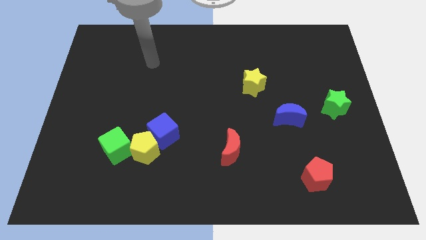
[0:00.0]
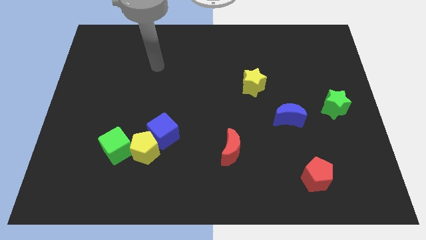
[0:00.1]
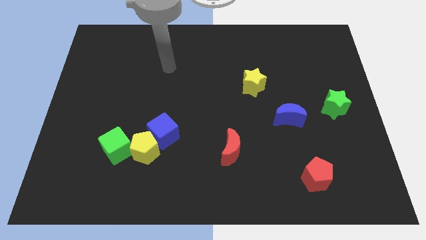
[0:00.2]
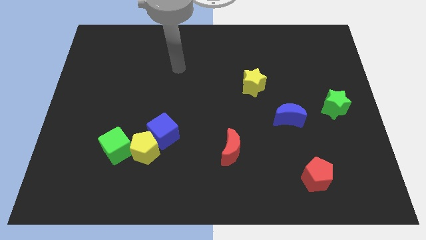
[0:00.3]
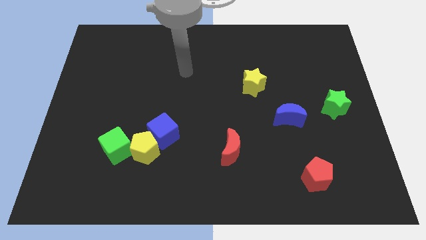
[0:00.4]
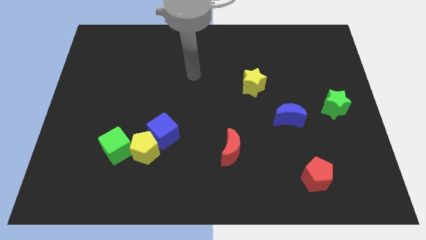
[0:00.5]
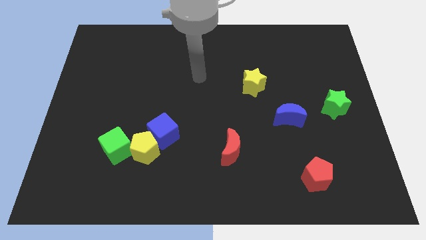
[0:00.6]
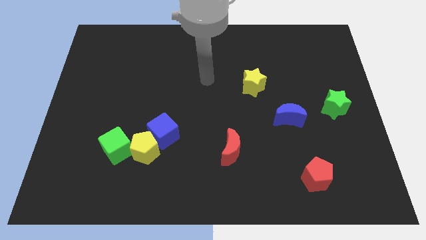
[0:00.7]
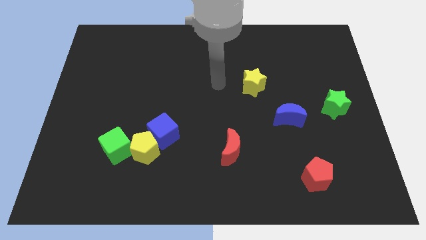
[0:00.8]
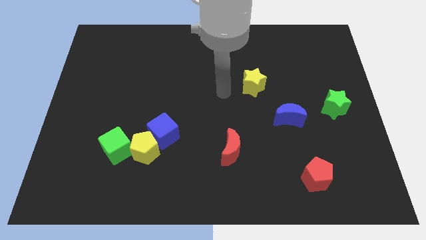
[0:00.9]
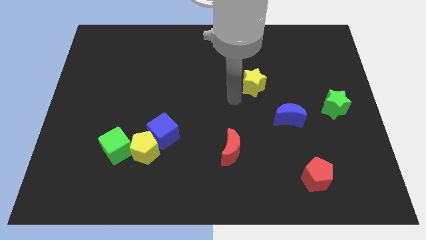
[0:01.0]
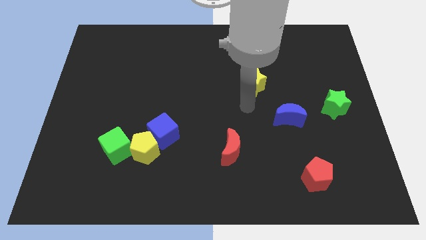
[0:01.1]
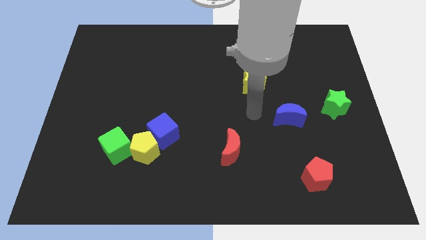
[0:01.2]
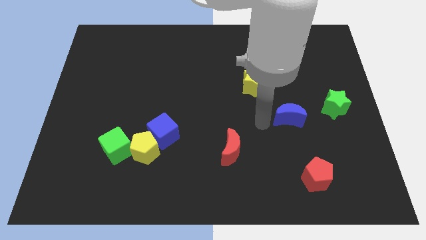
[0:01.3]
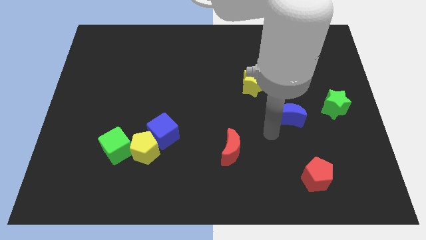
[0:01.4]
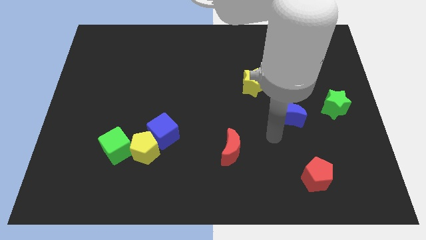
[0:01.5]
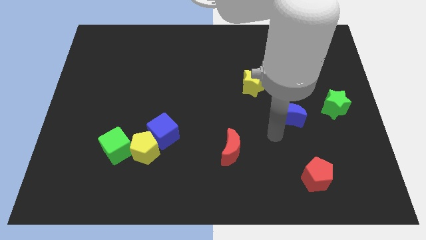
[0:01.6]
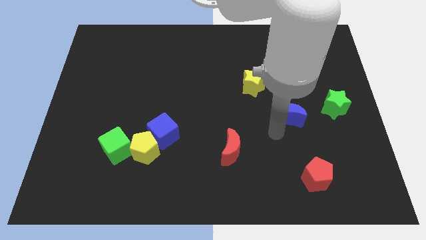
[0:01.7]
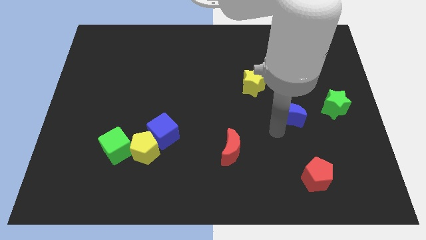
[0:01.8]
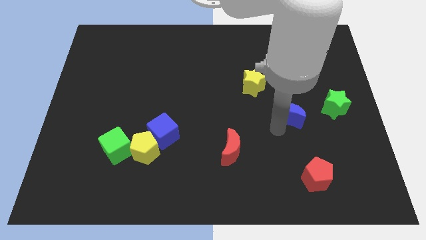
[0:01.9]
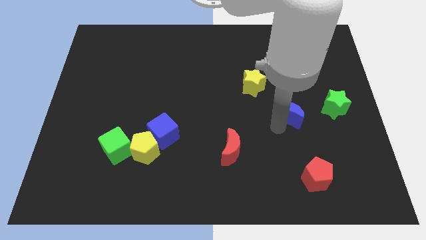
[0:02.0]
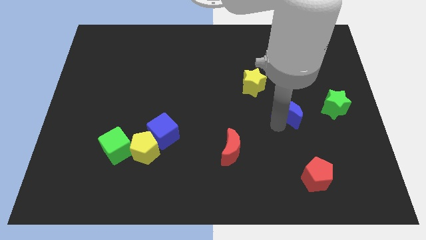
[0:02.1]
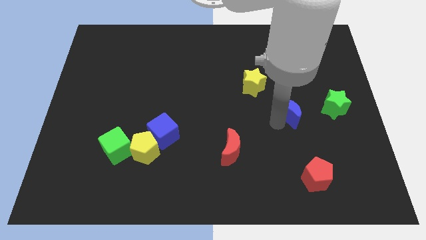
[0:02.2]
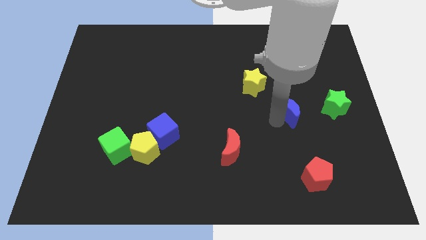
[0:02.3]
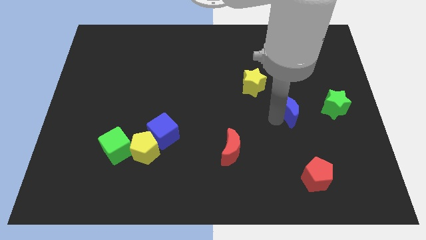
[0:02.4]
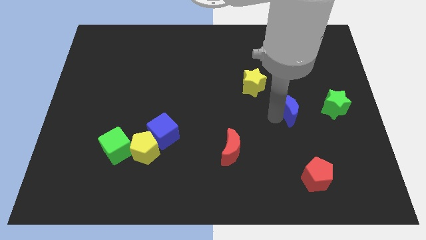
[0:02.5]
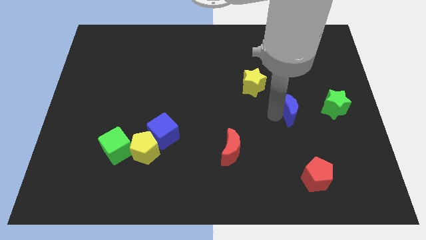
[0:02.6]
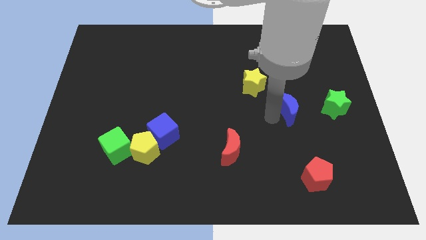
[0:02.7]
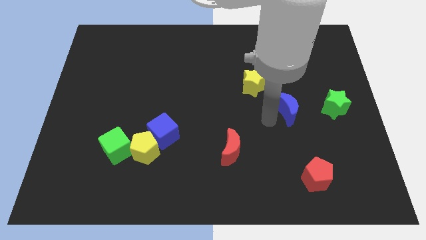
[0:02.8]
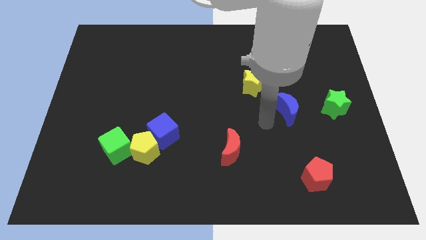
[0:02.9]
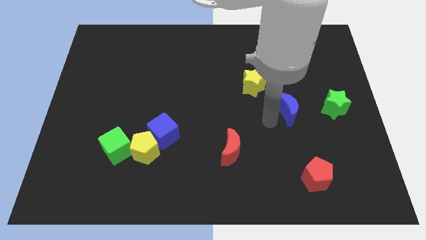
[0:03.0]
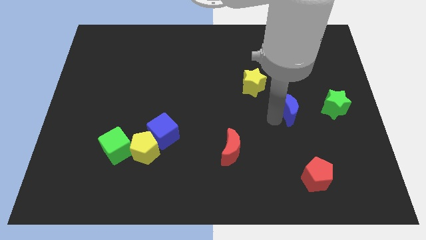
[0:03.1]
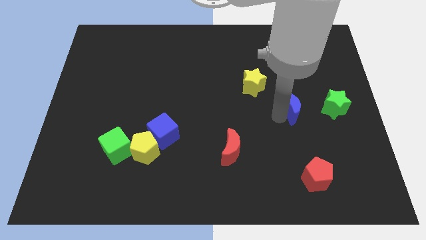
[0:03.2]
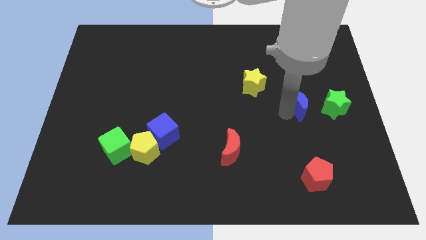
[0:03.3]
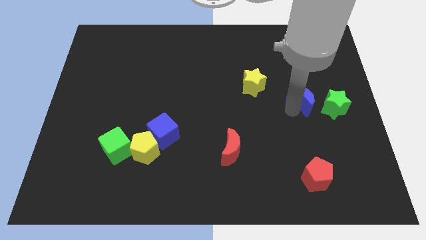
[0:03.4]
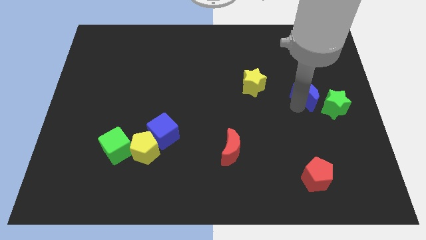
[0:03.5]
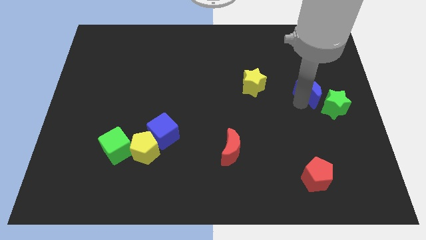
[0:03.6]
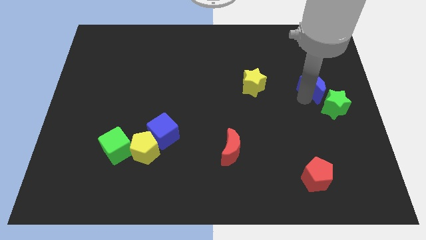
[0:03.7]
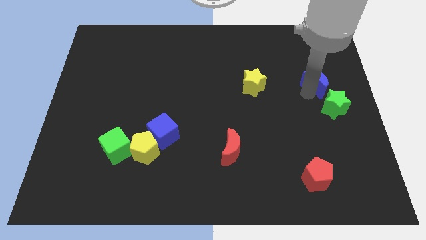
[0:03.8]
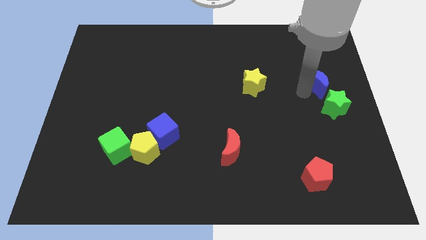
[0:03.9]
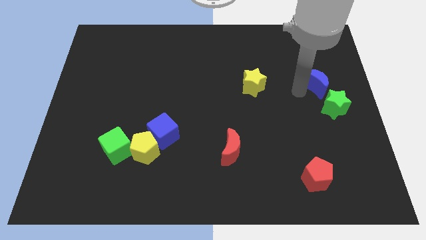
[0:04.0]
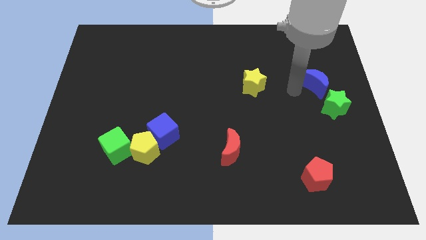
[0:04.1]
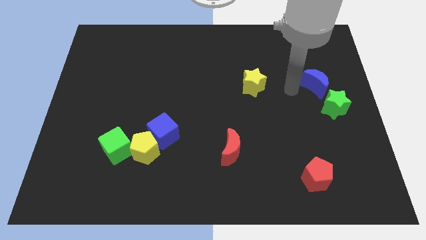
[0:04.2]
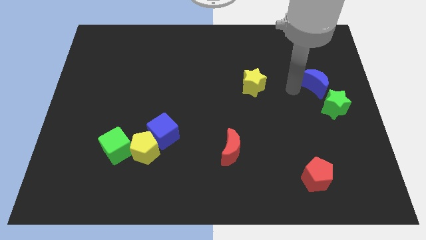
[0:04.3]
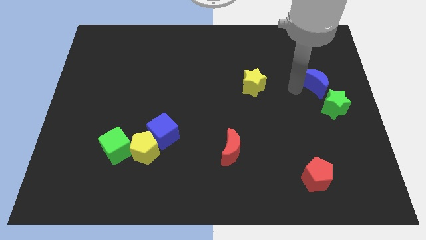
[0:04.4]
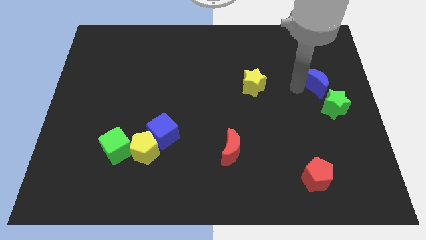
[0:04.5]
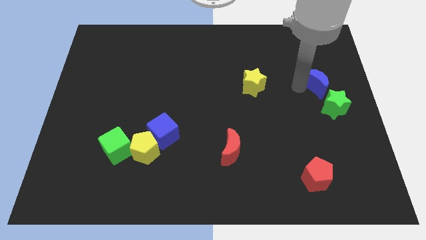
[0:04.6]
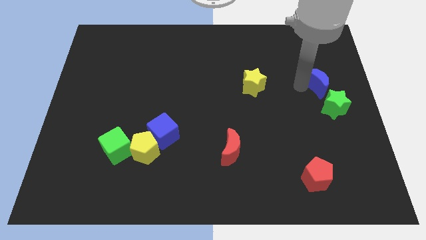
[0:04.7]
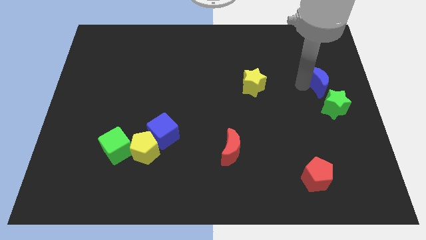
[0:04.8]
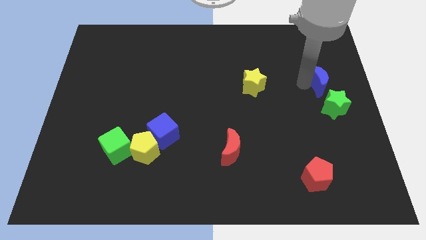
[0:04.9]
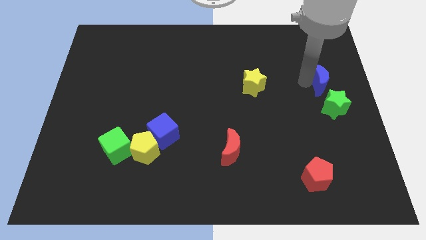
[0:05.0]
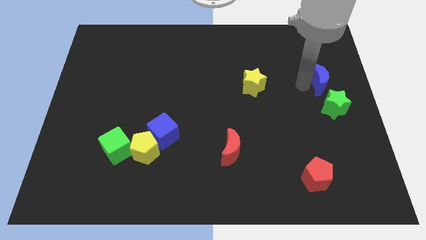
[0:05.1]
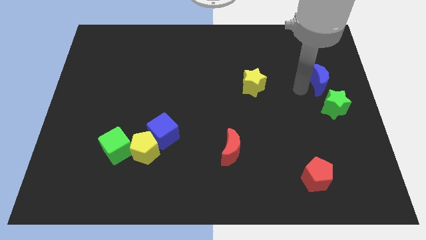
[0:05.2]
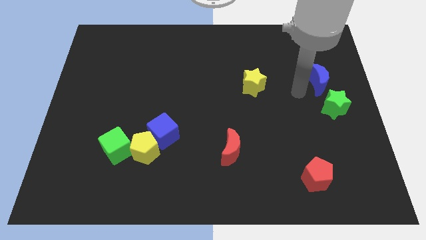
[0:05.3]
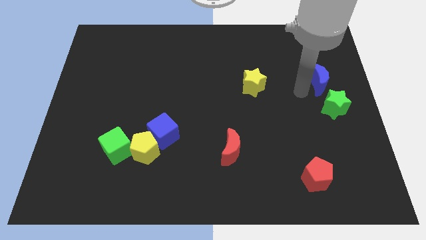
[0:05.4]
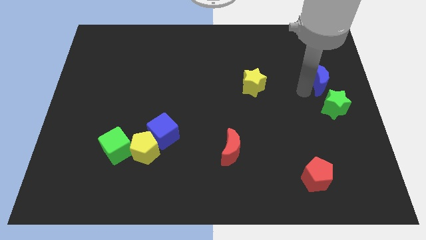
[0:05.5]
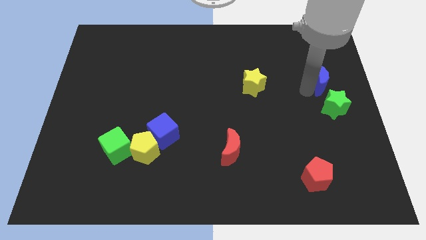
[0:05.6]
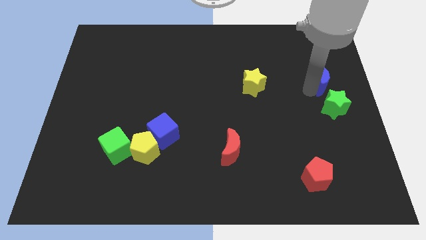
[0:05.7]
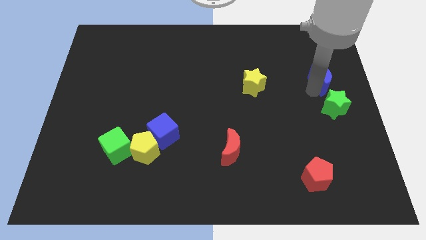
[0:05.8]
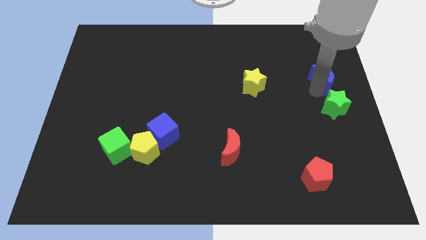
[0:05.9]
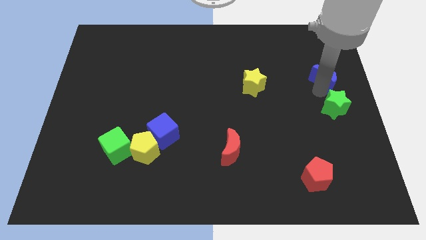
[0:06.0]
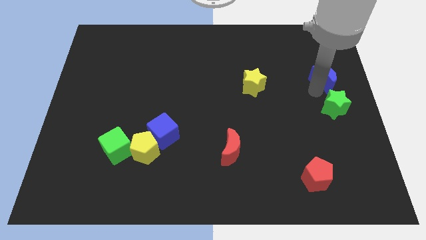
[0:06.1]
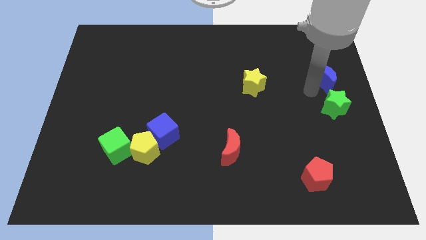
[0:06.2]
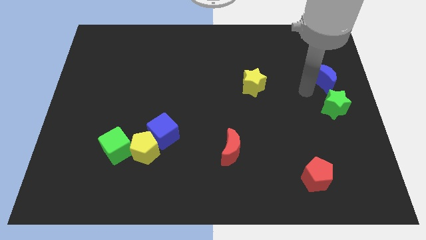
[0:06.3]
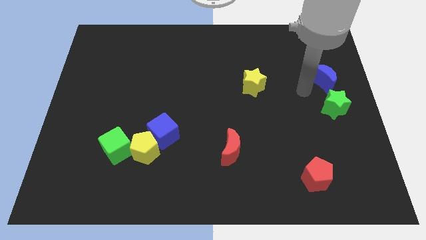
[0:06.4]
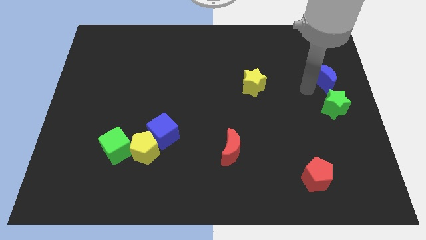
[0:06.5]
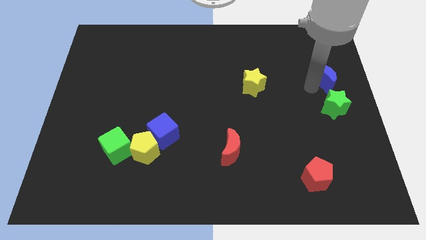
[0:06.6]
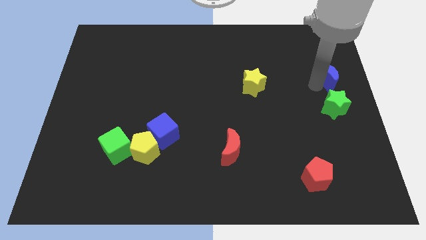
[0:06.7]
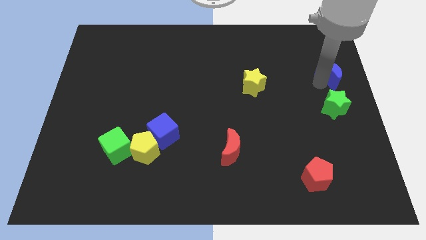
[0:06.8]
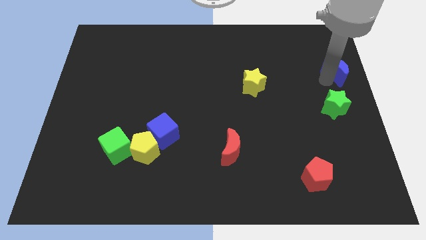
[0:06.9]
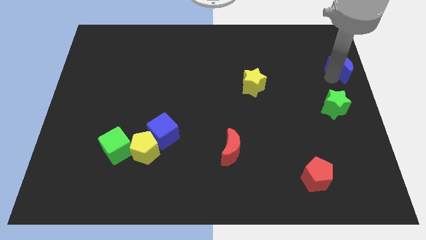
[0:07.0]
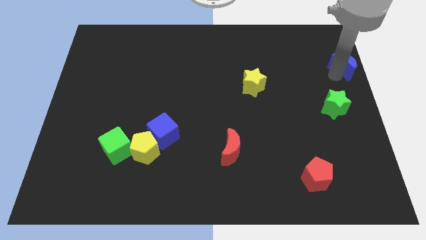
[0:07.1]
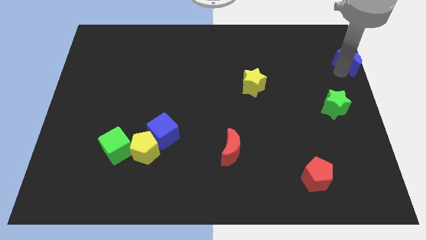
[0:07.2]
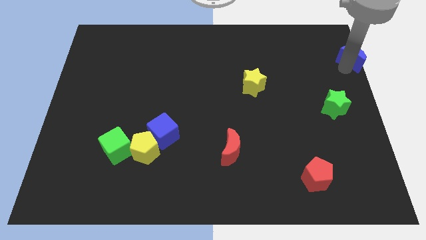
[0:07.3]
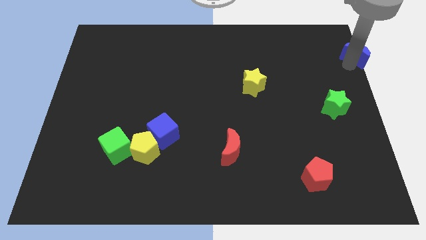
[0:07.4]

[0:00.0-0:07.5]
put the blue moon to the upper right corner
